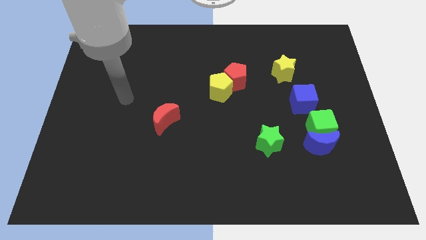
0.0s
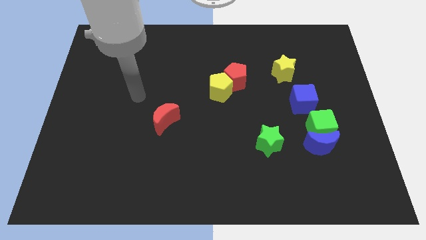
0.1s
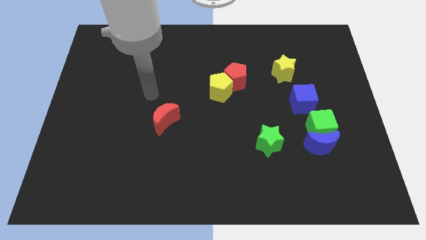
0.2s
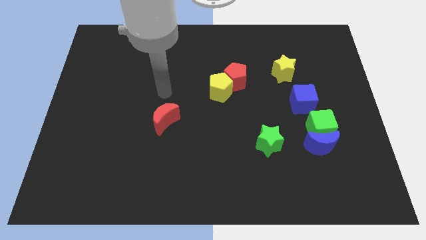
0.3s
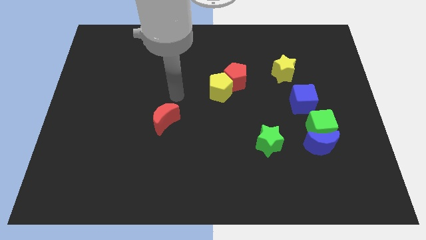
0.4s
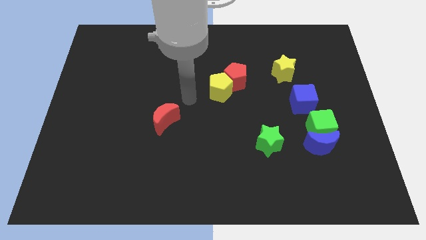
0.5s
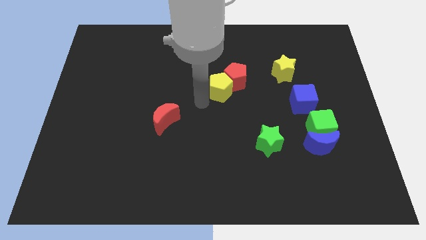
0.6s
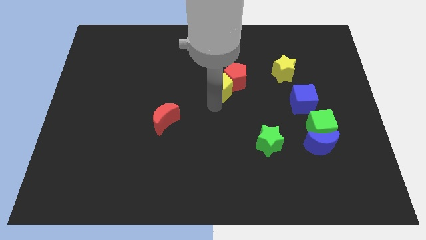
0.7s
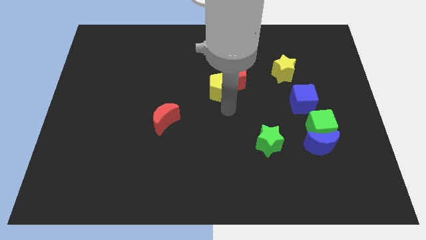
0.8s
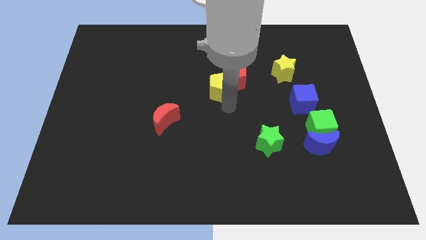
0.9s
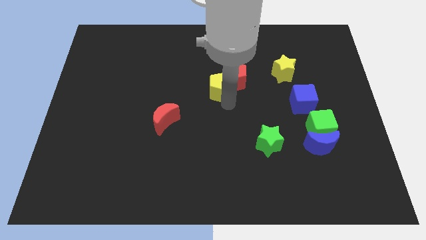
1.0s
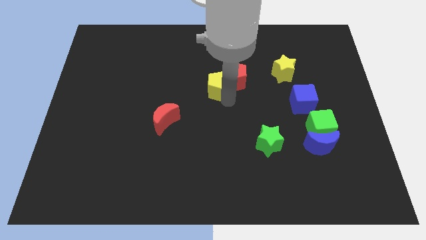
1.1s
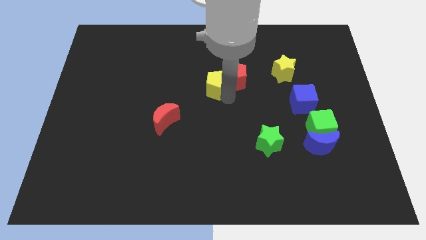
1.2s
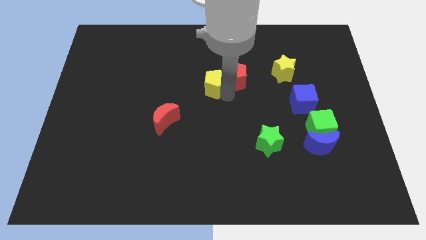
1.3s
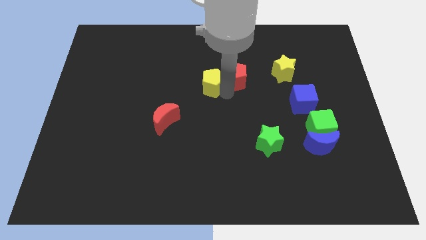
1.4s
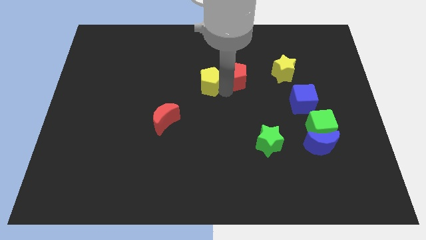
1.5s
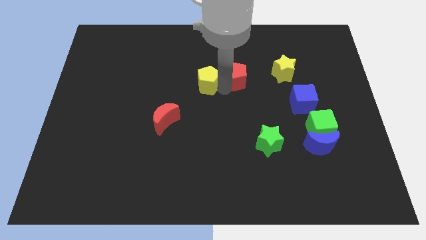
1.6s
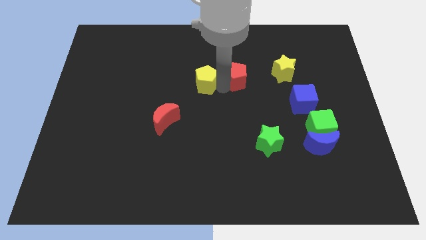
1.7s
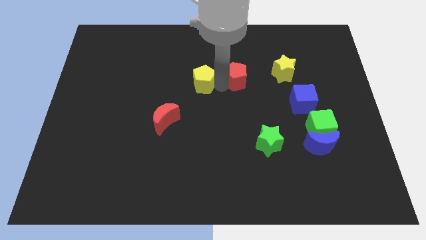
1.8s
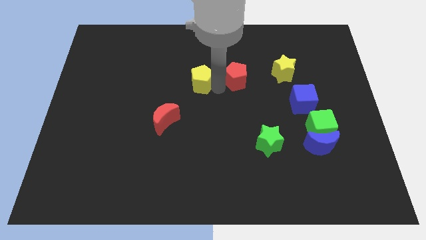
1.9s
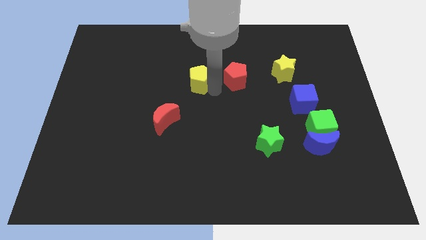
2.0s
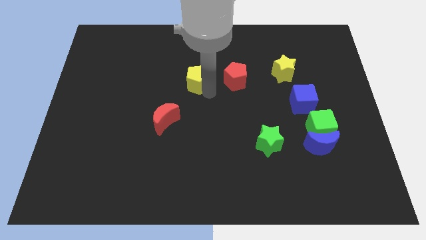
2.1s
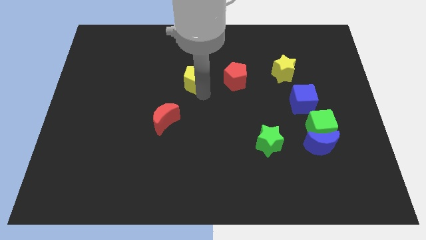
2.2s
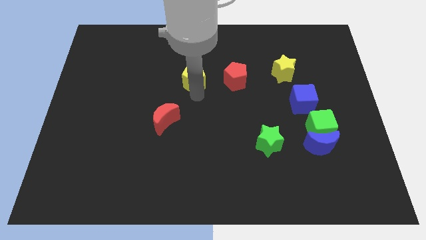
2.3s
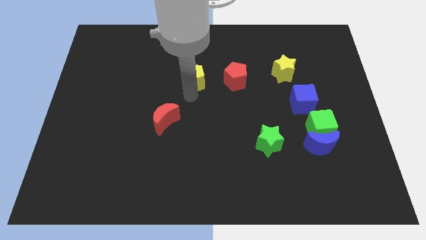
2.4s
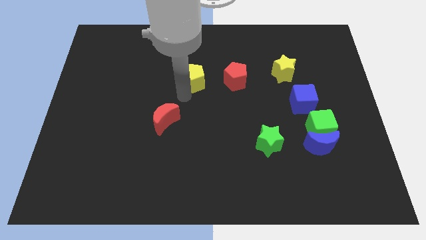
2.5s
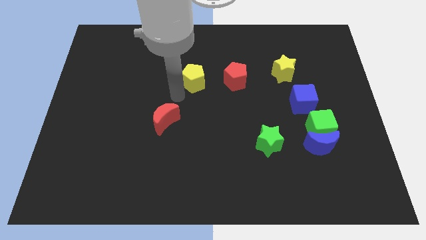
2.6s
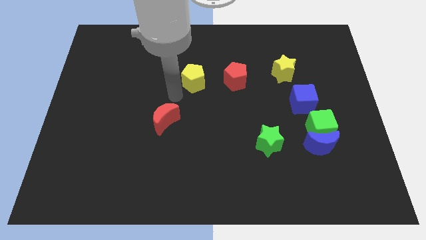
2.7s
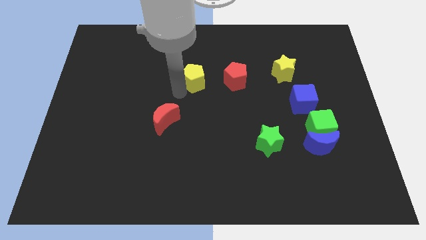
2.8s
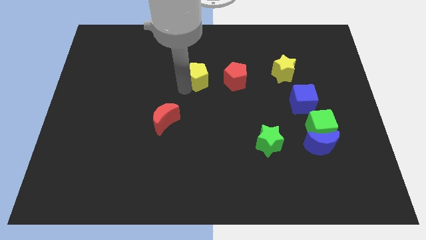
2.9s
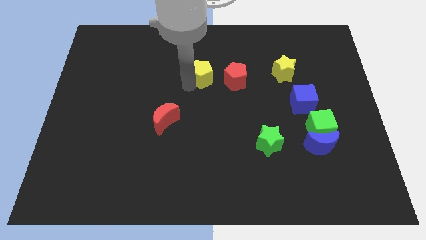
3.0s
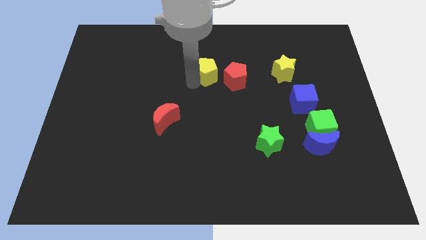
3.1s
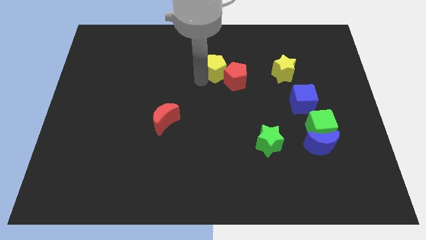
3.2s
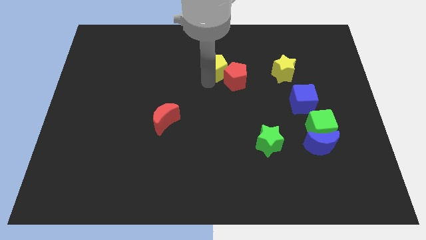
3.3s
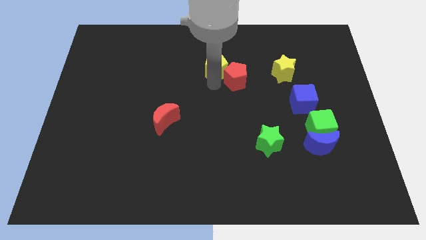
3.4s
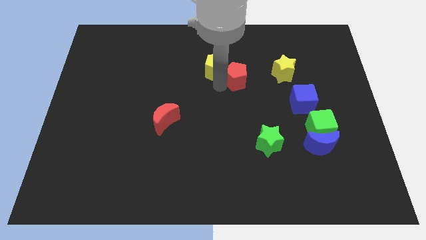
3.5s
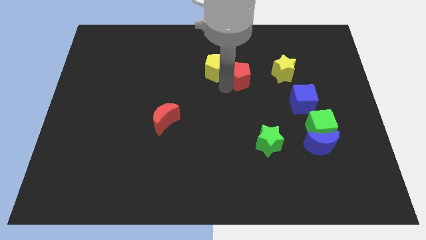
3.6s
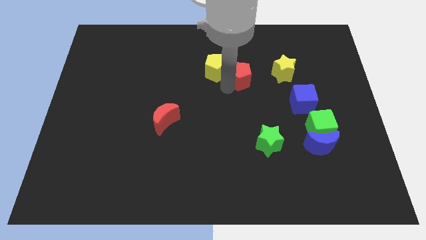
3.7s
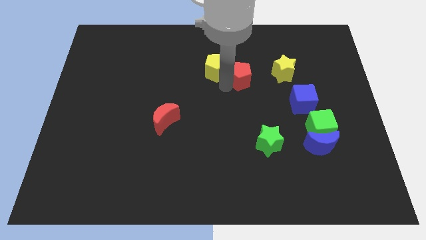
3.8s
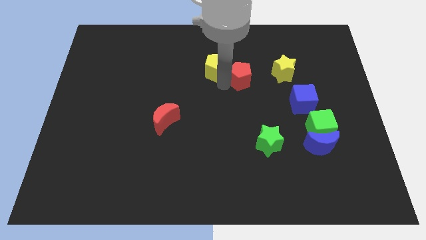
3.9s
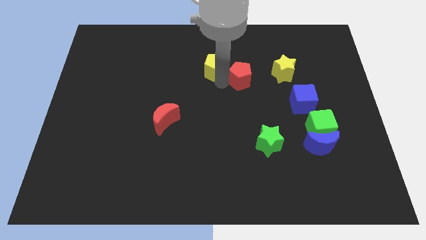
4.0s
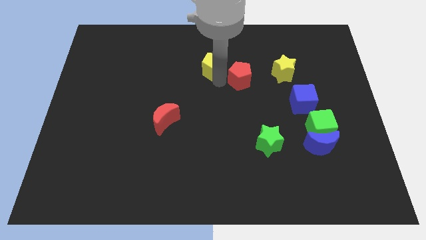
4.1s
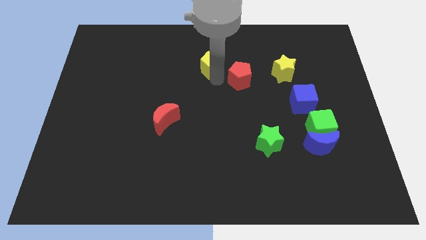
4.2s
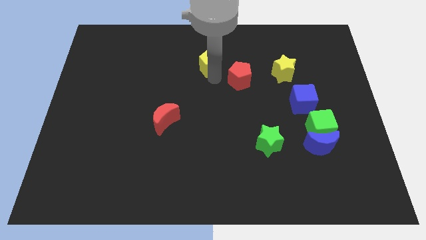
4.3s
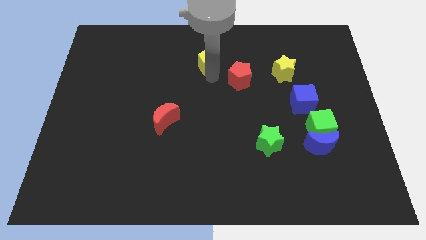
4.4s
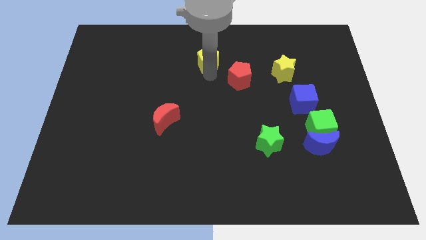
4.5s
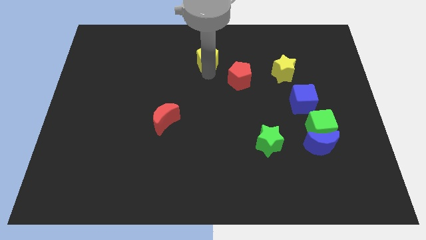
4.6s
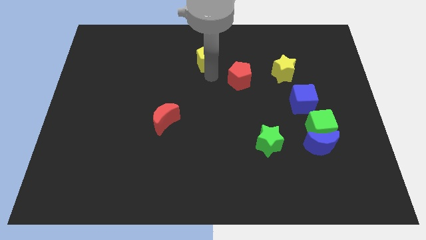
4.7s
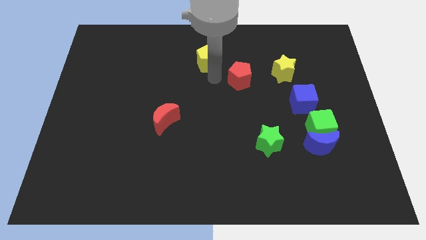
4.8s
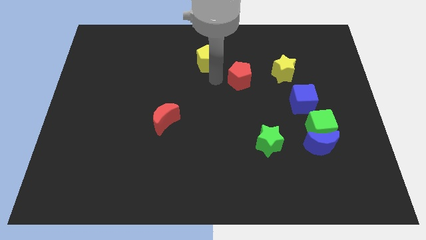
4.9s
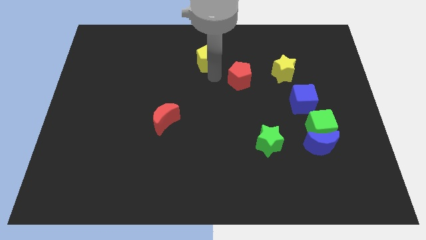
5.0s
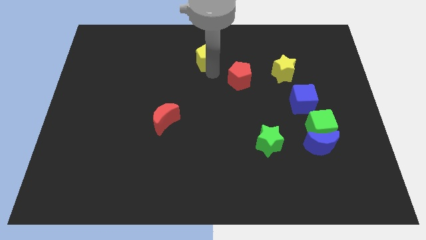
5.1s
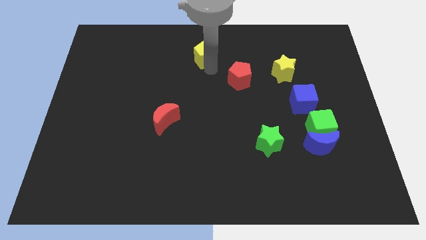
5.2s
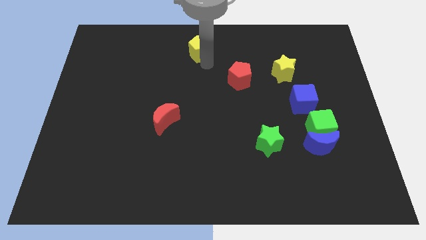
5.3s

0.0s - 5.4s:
move the yellow pentagon to the top
